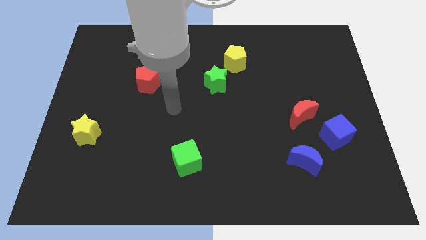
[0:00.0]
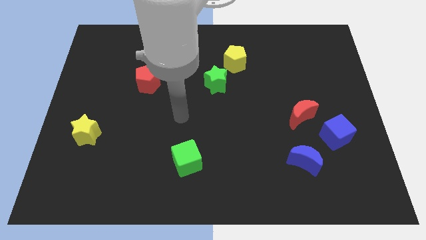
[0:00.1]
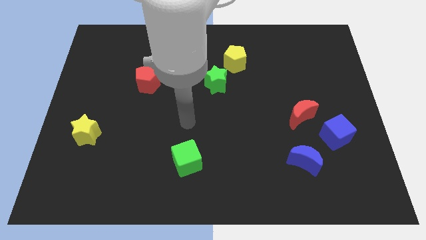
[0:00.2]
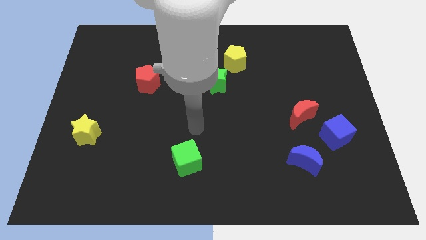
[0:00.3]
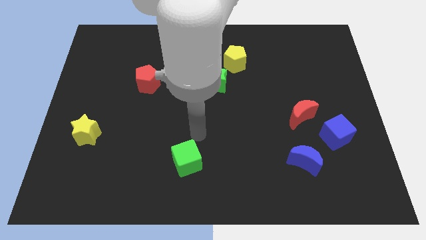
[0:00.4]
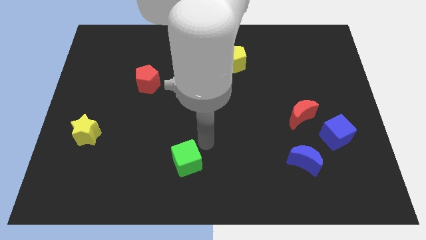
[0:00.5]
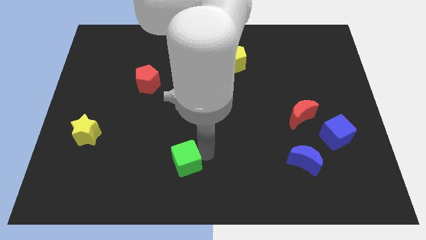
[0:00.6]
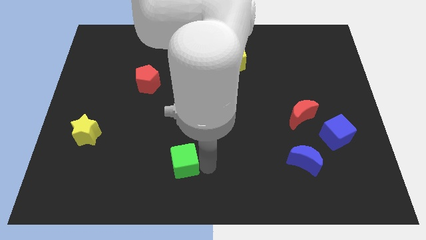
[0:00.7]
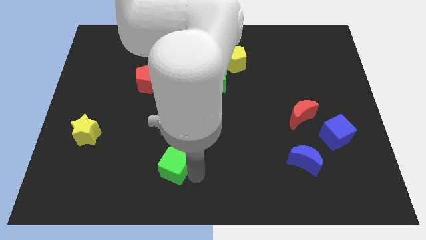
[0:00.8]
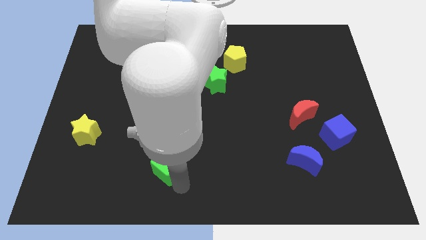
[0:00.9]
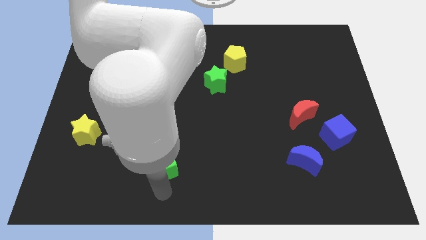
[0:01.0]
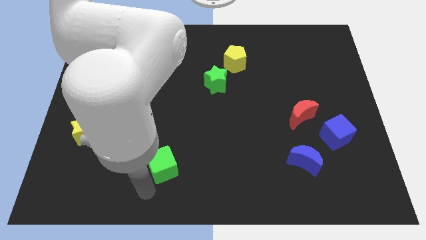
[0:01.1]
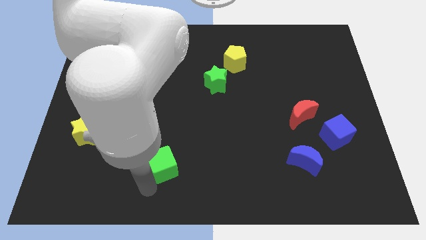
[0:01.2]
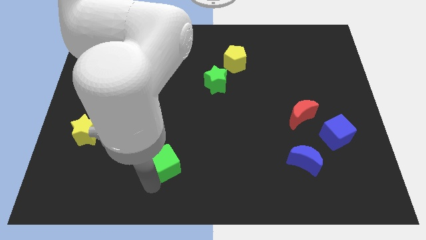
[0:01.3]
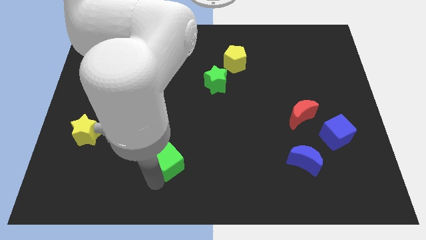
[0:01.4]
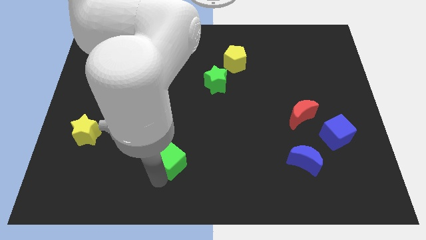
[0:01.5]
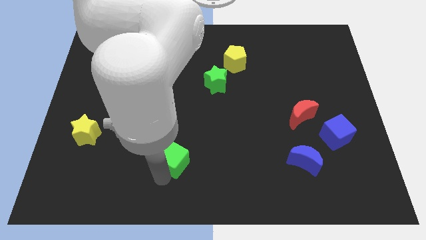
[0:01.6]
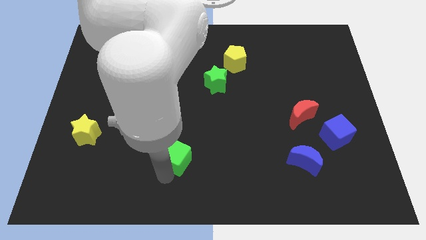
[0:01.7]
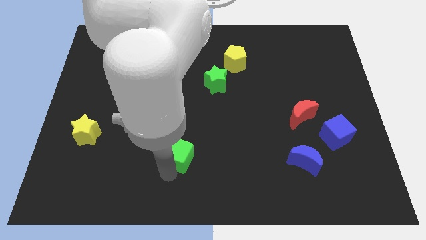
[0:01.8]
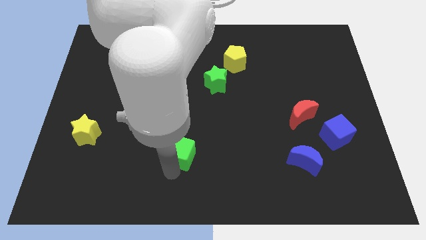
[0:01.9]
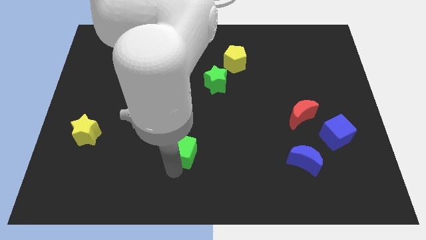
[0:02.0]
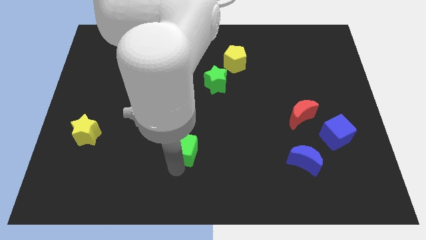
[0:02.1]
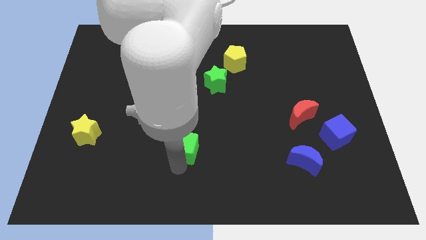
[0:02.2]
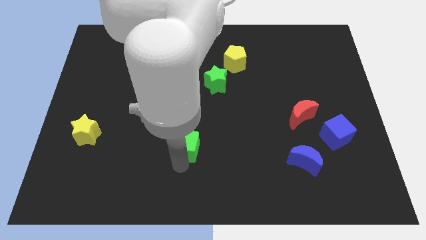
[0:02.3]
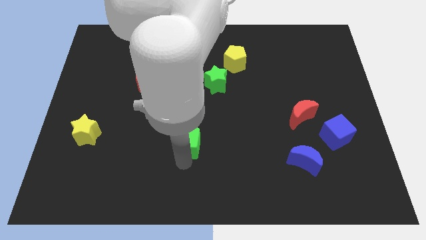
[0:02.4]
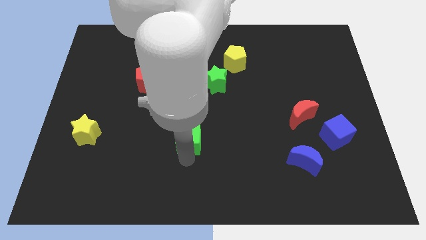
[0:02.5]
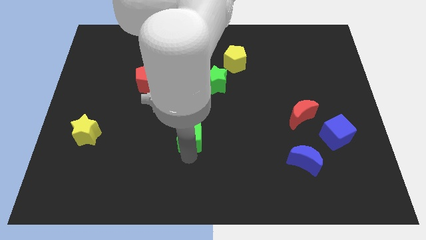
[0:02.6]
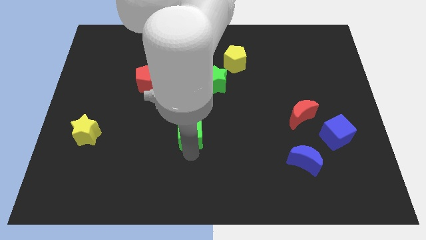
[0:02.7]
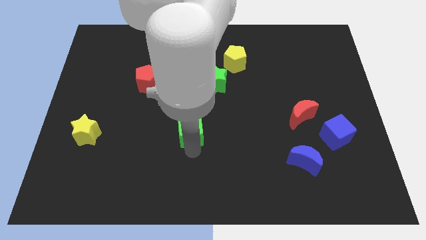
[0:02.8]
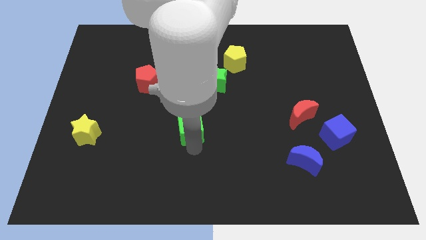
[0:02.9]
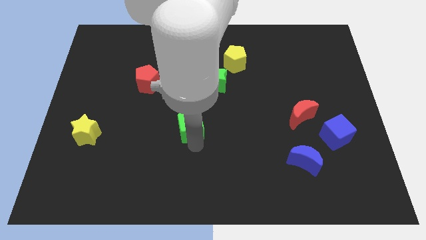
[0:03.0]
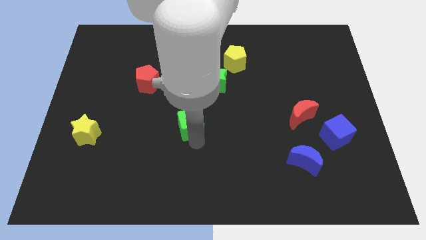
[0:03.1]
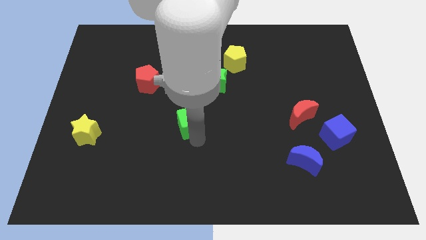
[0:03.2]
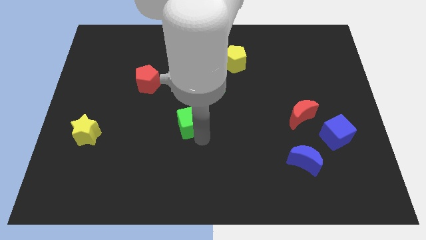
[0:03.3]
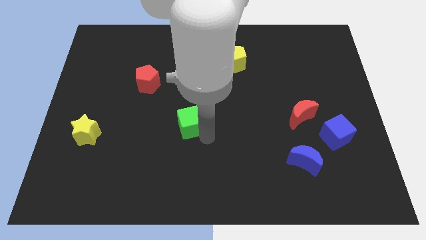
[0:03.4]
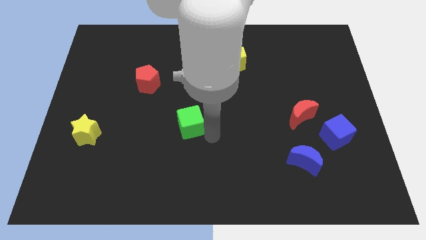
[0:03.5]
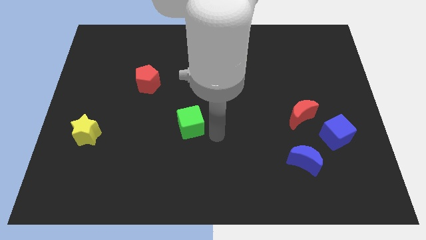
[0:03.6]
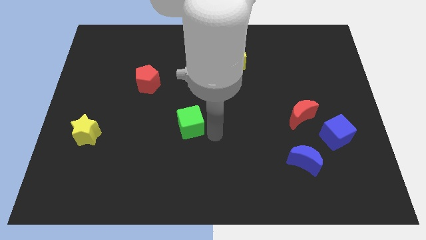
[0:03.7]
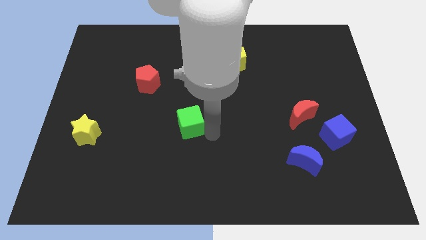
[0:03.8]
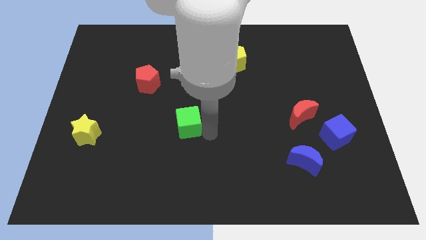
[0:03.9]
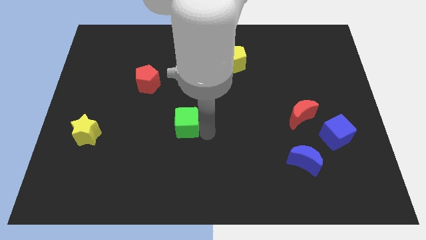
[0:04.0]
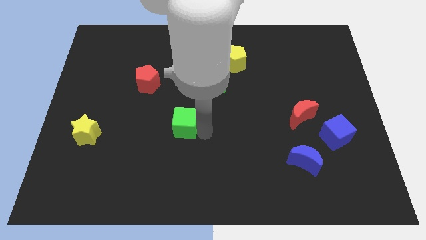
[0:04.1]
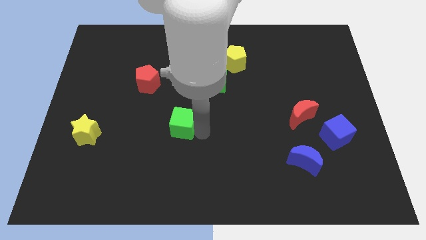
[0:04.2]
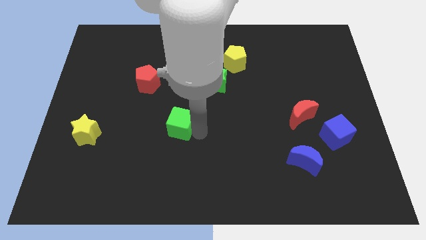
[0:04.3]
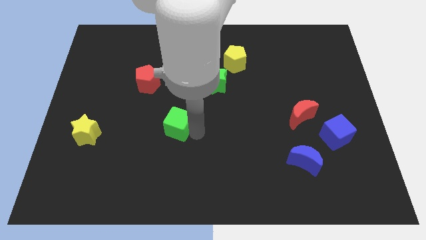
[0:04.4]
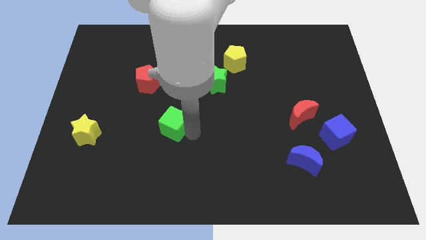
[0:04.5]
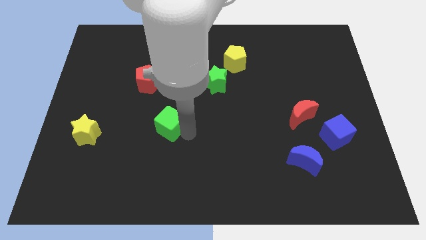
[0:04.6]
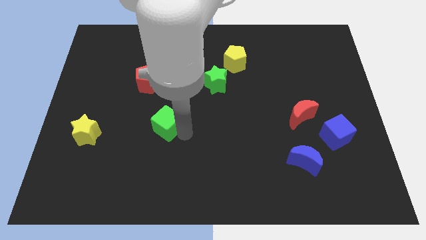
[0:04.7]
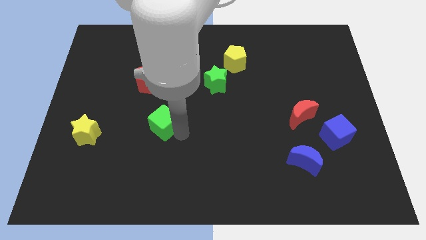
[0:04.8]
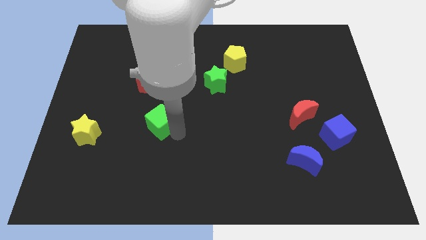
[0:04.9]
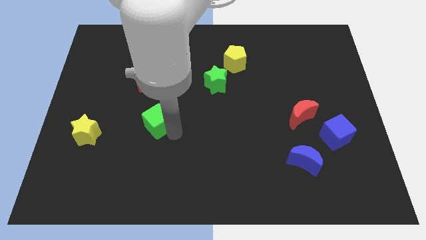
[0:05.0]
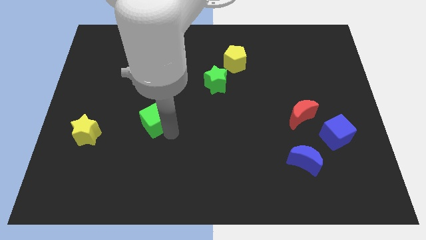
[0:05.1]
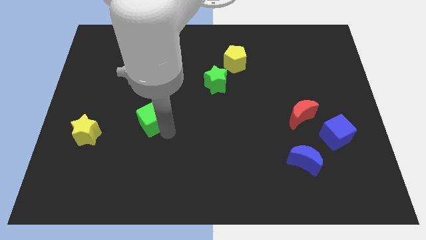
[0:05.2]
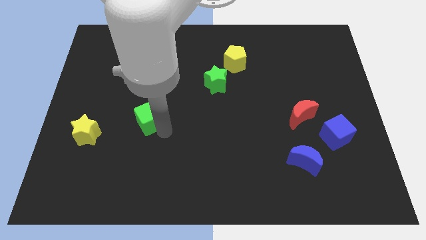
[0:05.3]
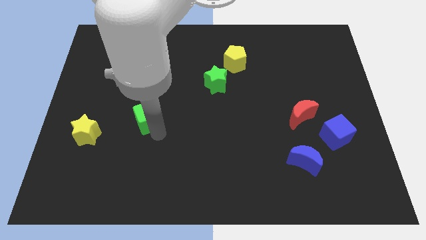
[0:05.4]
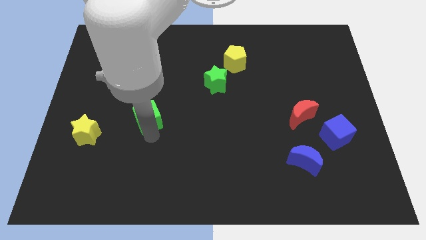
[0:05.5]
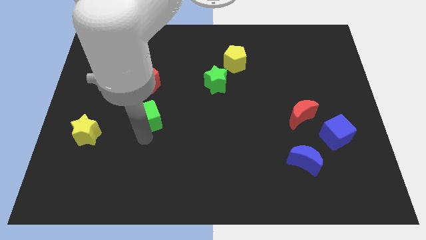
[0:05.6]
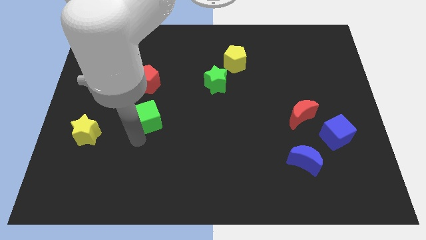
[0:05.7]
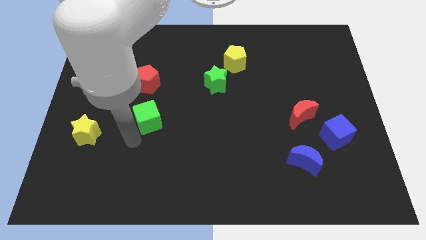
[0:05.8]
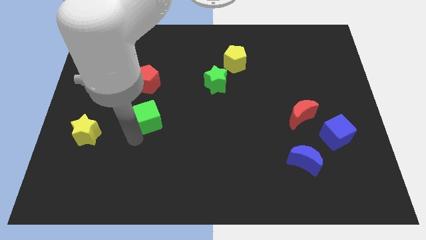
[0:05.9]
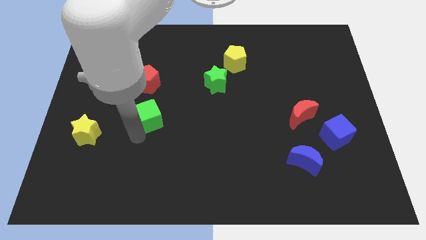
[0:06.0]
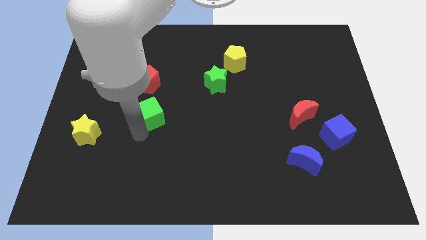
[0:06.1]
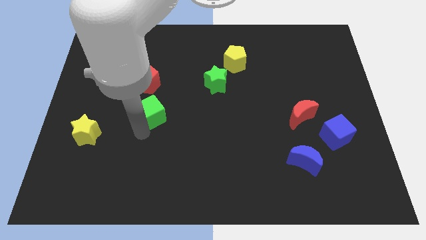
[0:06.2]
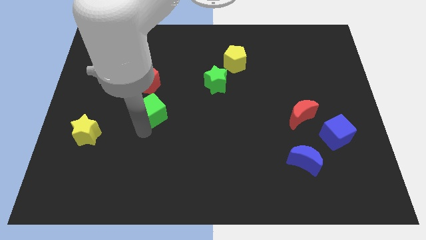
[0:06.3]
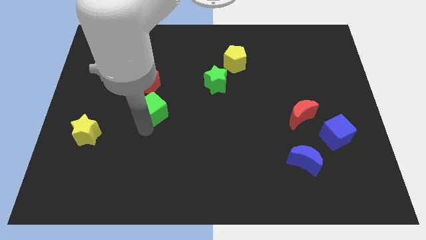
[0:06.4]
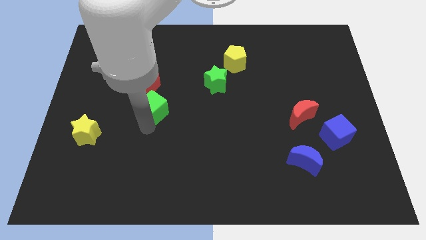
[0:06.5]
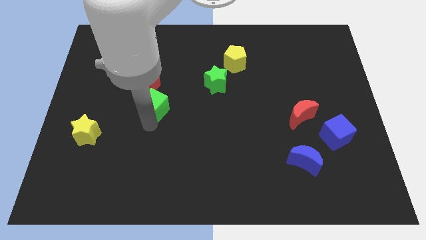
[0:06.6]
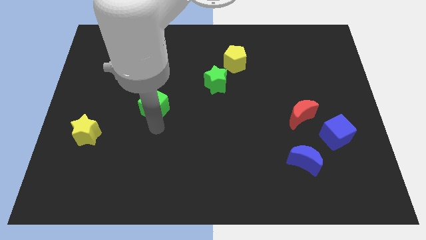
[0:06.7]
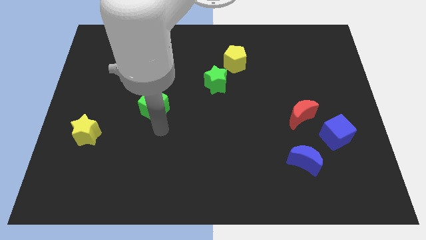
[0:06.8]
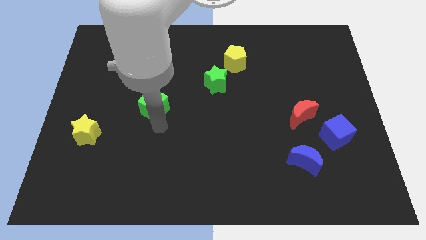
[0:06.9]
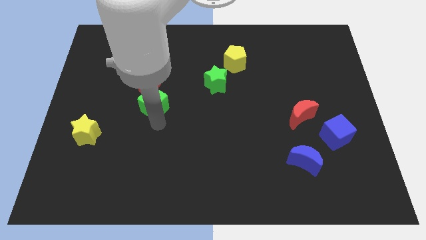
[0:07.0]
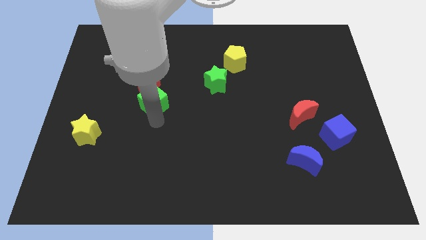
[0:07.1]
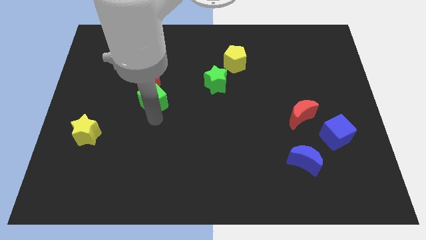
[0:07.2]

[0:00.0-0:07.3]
put the green cube towards the red pentagon
